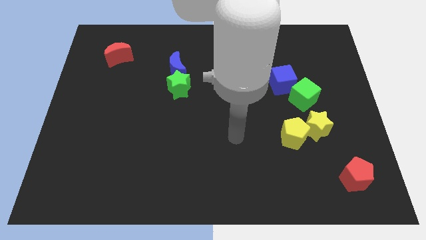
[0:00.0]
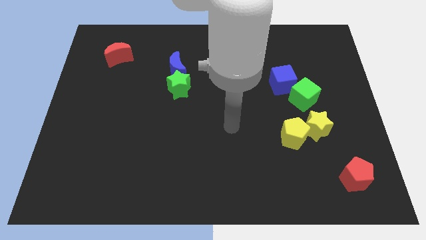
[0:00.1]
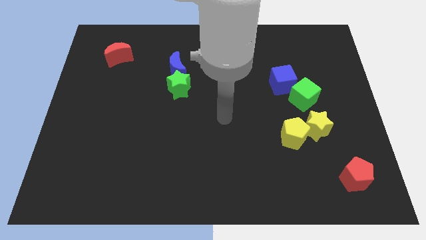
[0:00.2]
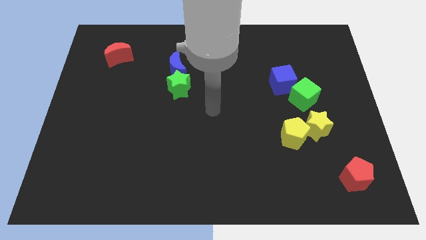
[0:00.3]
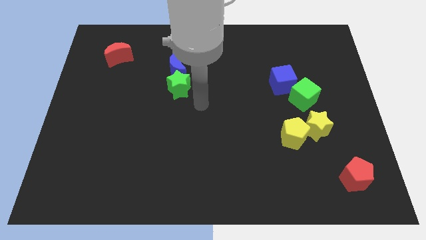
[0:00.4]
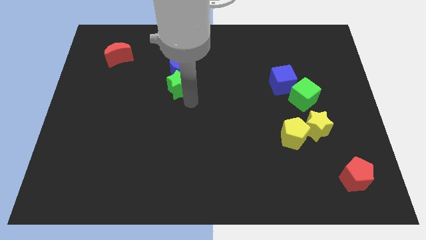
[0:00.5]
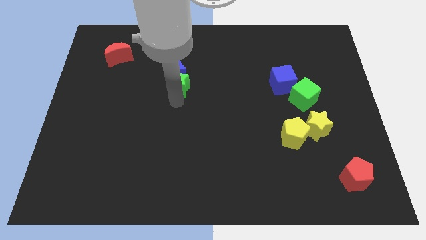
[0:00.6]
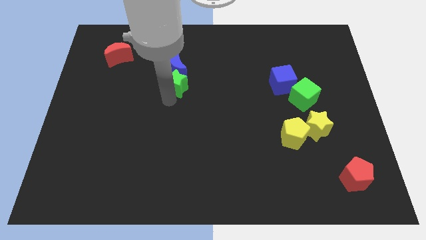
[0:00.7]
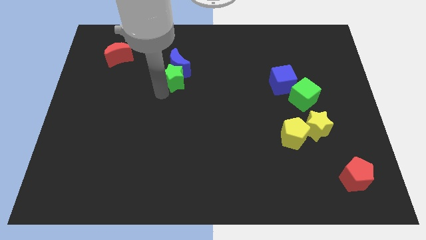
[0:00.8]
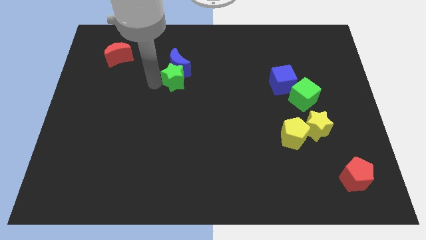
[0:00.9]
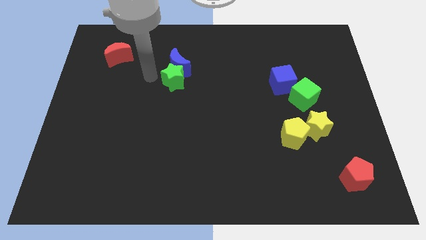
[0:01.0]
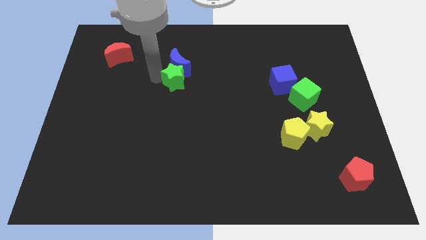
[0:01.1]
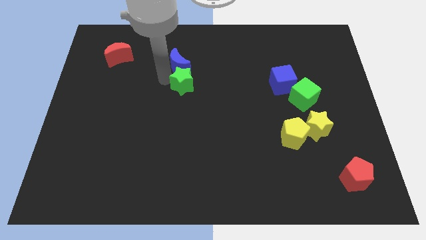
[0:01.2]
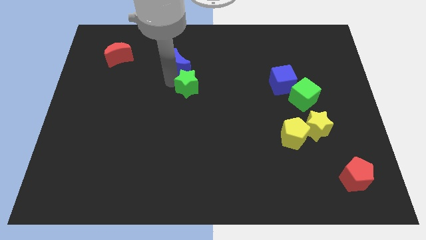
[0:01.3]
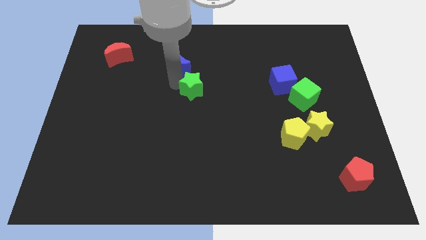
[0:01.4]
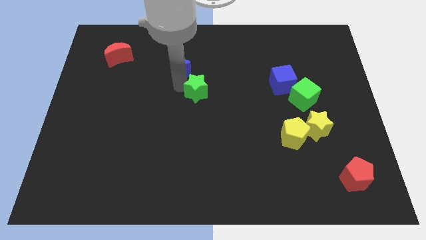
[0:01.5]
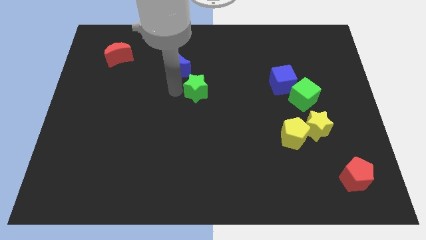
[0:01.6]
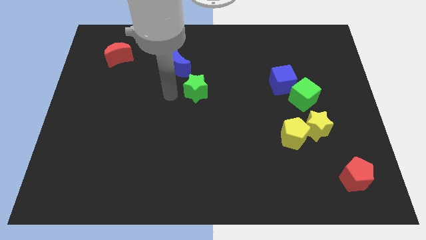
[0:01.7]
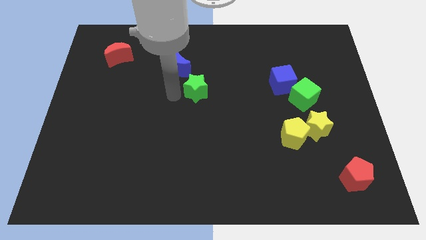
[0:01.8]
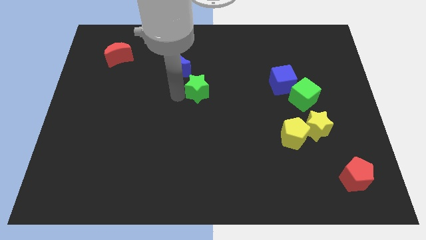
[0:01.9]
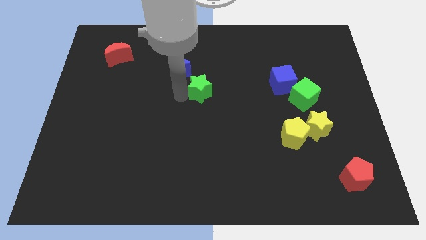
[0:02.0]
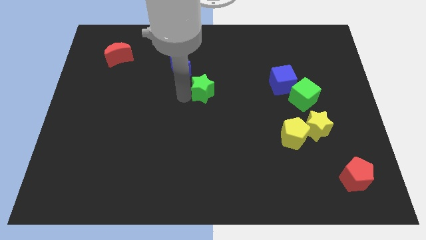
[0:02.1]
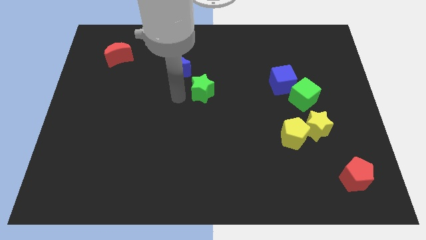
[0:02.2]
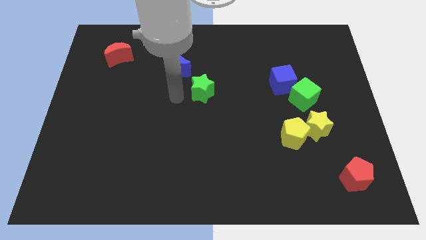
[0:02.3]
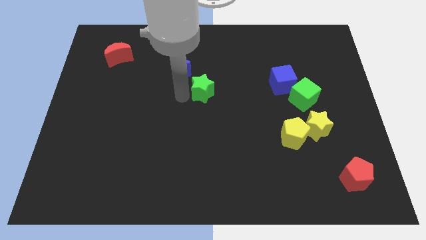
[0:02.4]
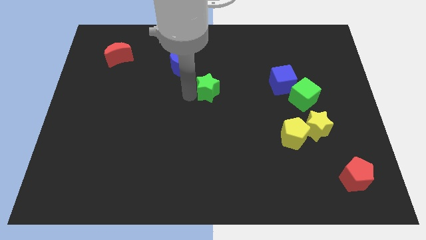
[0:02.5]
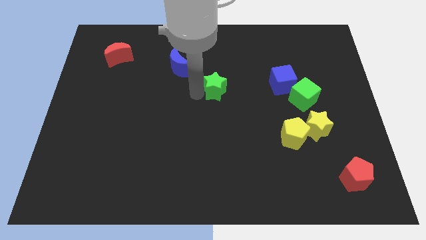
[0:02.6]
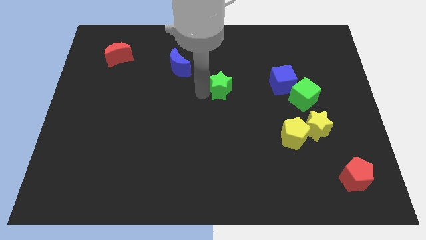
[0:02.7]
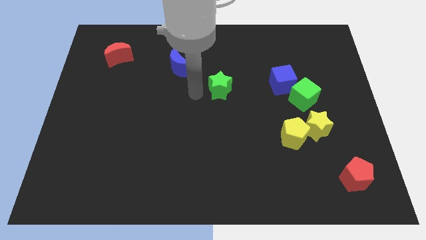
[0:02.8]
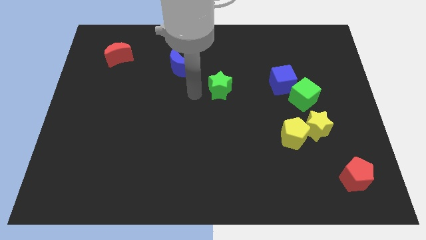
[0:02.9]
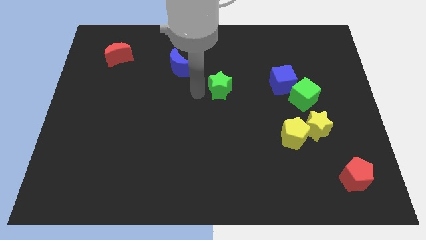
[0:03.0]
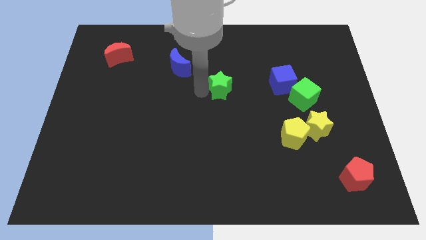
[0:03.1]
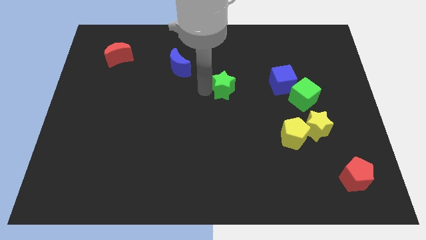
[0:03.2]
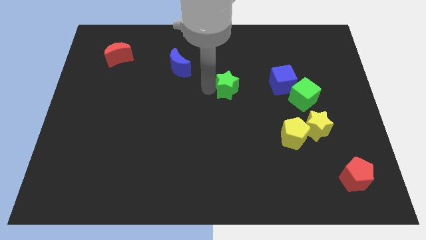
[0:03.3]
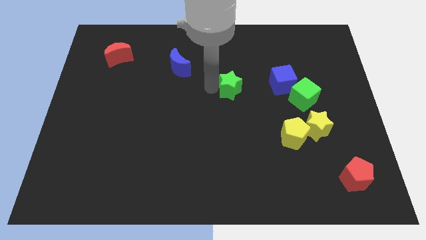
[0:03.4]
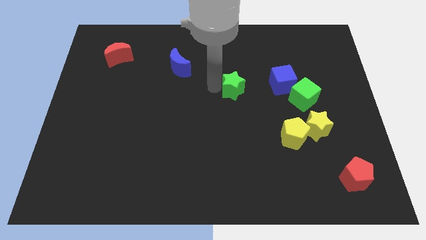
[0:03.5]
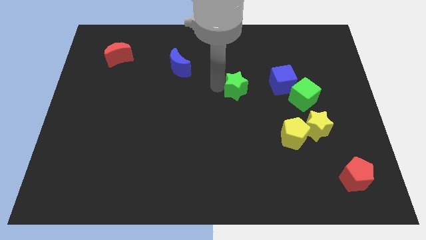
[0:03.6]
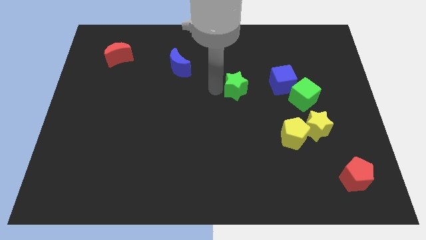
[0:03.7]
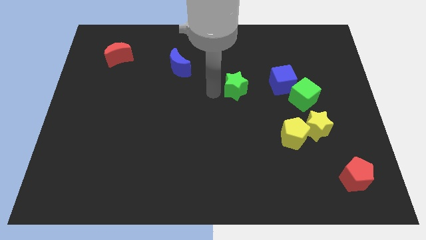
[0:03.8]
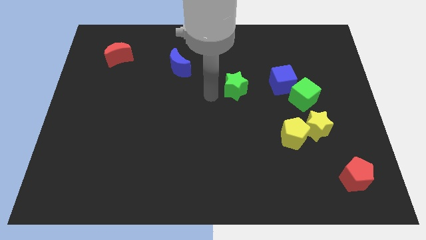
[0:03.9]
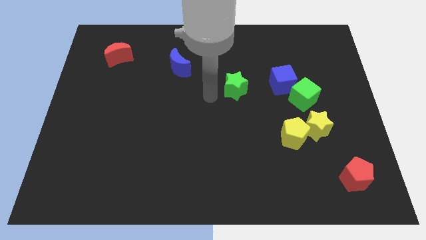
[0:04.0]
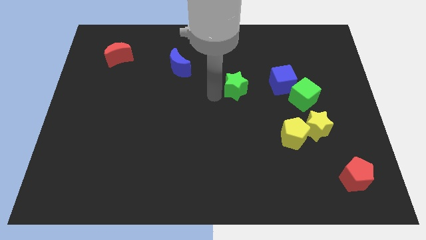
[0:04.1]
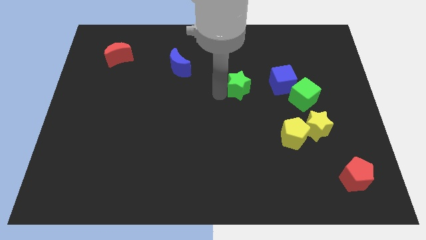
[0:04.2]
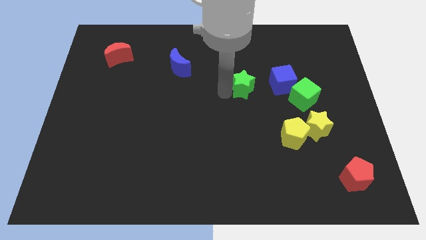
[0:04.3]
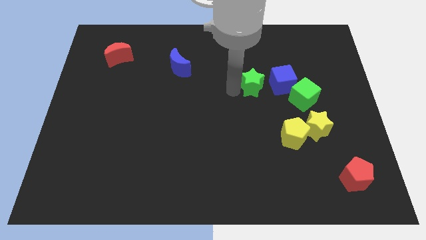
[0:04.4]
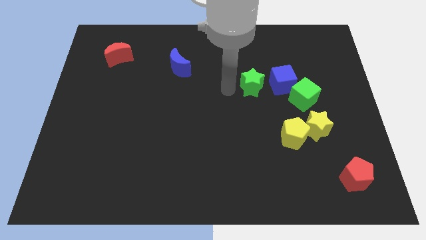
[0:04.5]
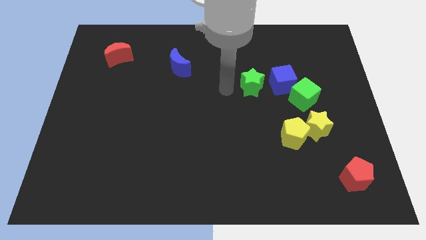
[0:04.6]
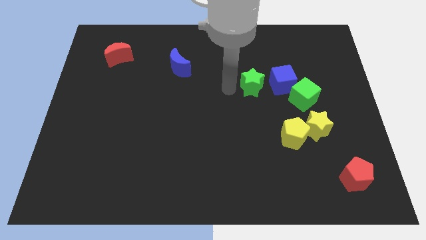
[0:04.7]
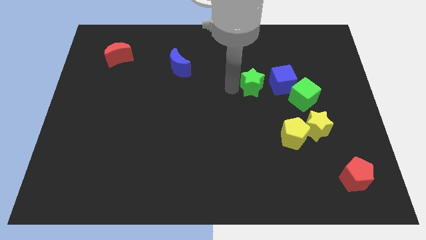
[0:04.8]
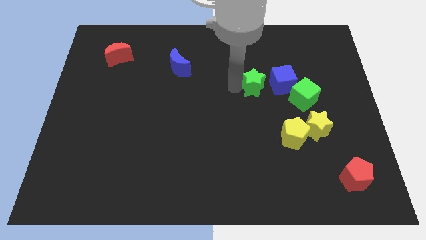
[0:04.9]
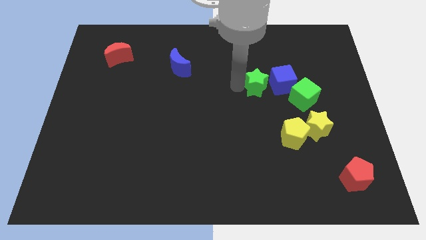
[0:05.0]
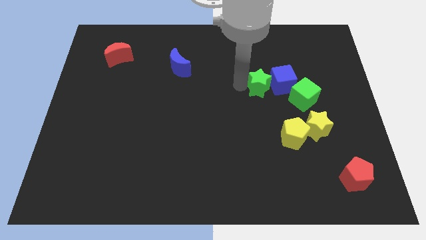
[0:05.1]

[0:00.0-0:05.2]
slide the green star close to the blue cube

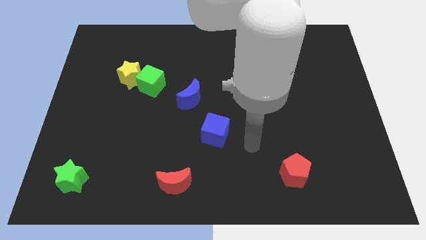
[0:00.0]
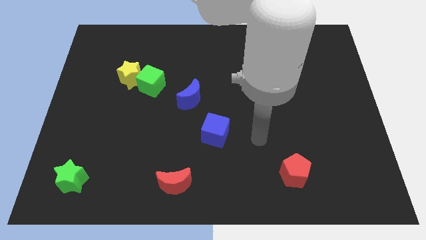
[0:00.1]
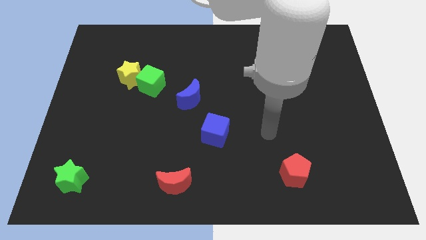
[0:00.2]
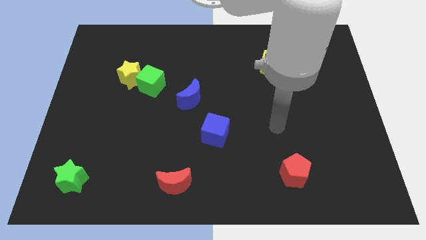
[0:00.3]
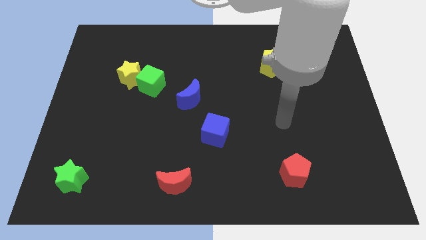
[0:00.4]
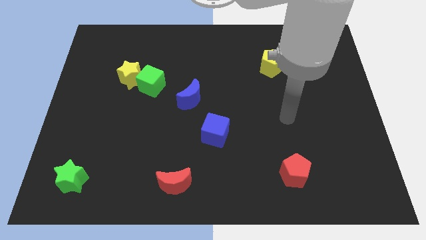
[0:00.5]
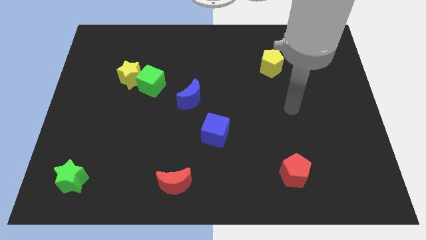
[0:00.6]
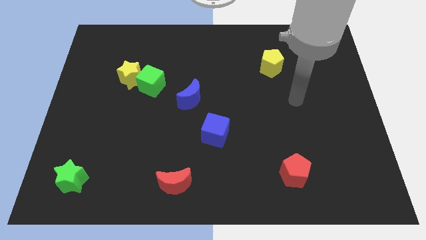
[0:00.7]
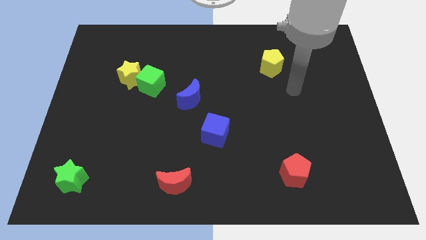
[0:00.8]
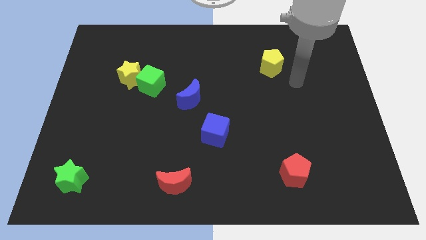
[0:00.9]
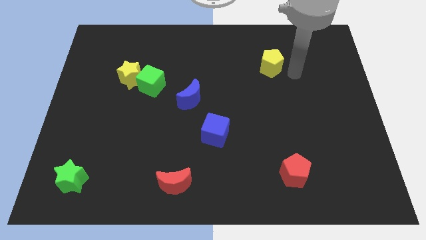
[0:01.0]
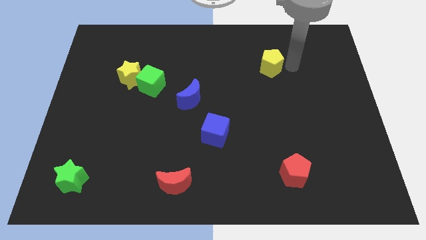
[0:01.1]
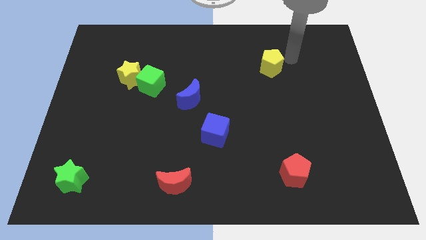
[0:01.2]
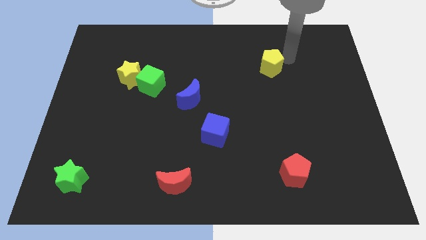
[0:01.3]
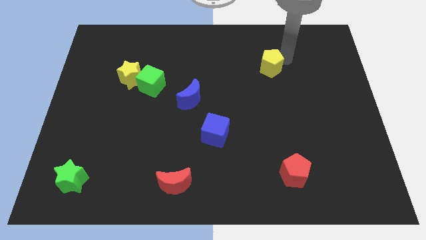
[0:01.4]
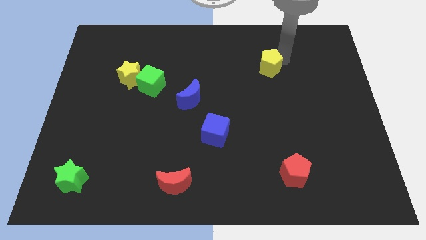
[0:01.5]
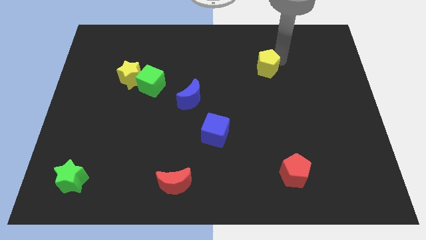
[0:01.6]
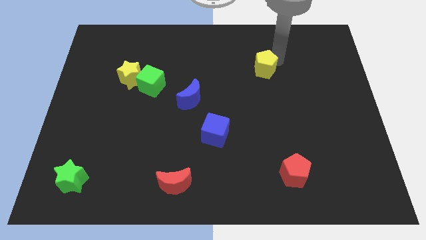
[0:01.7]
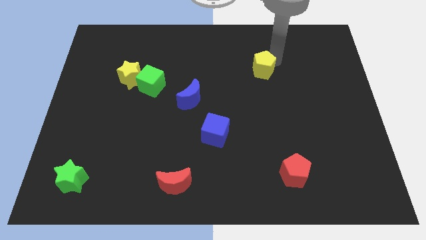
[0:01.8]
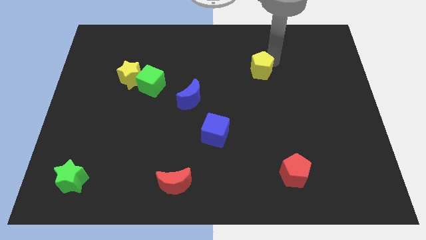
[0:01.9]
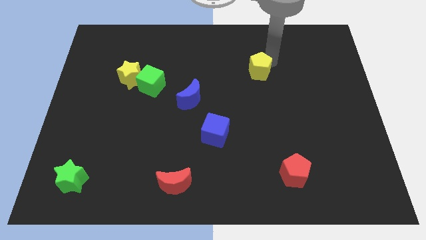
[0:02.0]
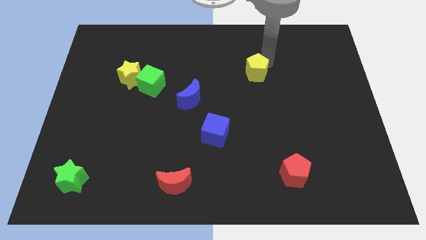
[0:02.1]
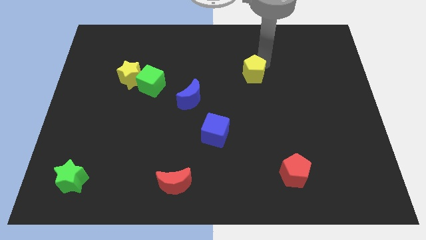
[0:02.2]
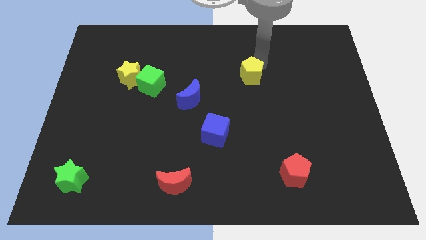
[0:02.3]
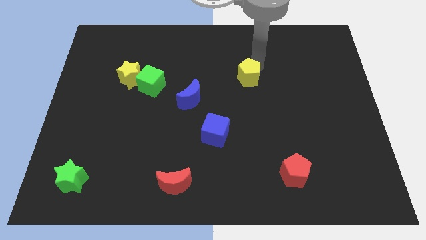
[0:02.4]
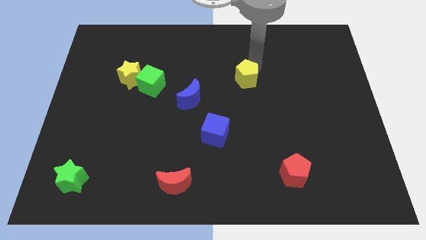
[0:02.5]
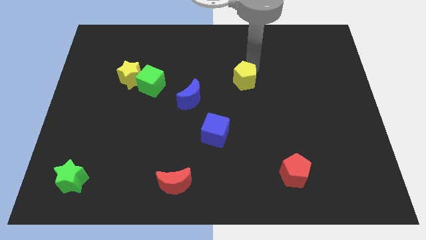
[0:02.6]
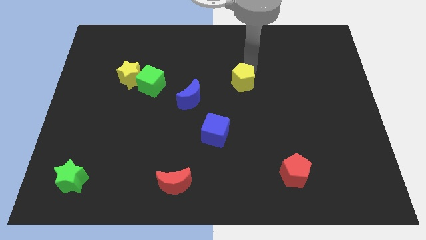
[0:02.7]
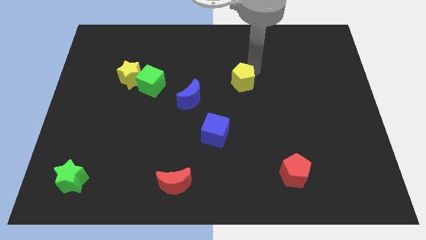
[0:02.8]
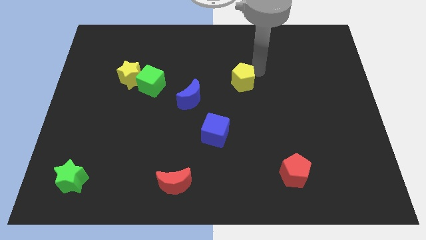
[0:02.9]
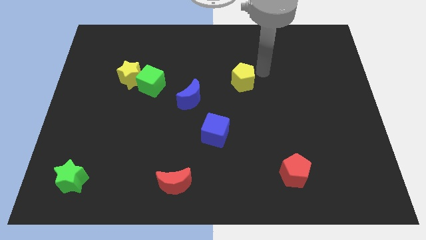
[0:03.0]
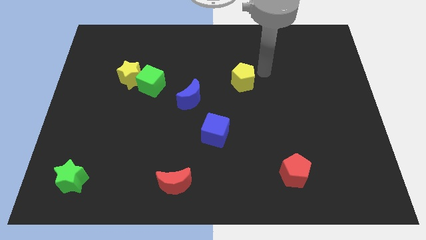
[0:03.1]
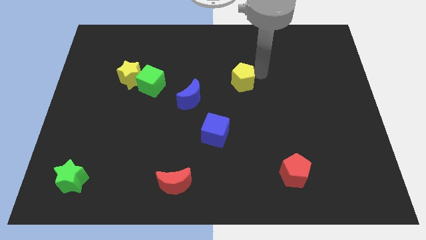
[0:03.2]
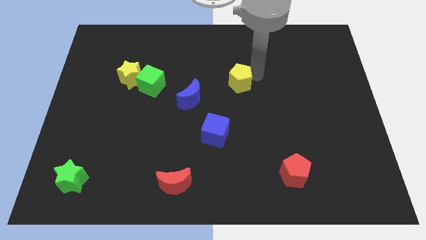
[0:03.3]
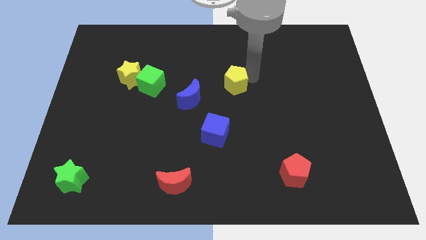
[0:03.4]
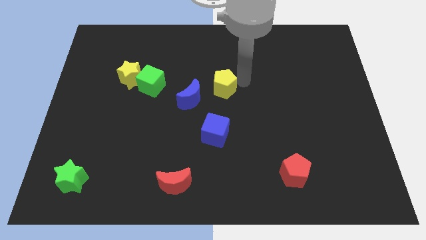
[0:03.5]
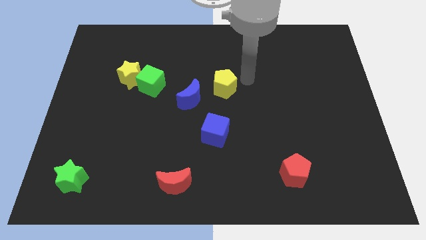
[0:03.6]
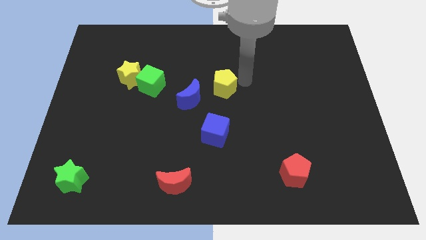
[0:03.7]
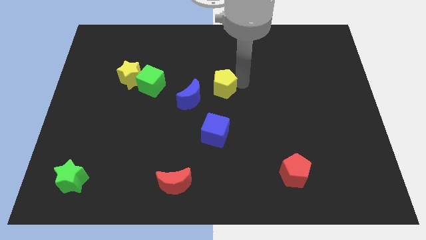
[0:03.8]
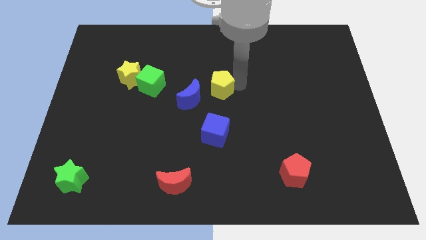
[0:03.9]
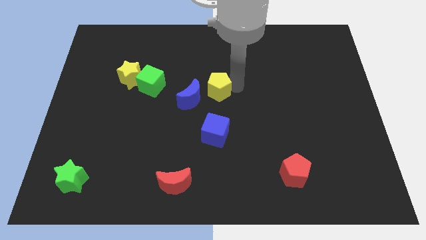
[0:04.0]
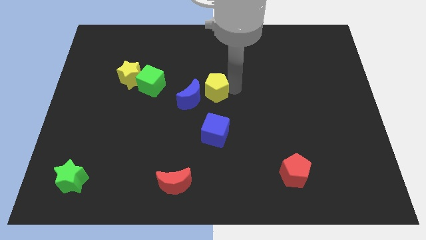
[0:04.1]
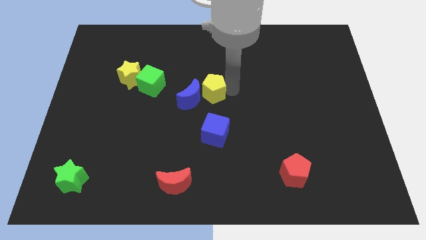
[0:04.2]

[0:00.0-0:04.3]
put the yellow pentagon towards the blue moon
